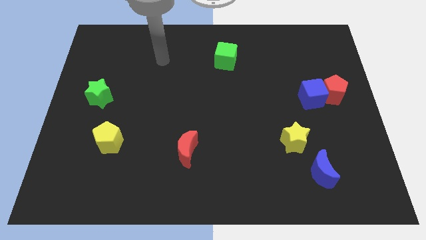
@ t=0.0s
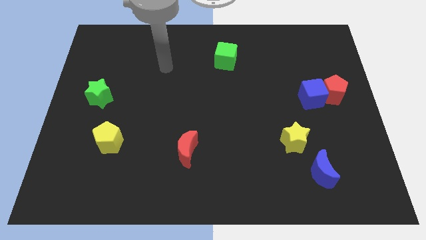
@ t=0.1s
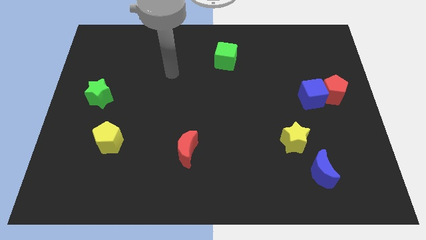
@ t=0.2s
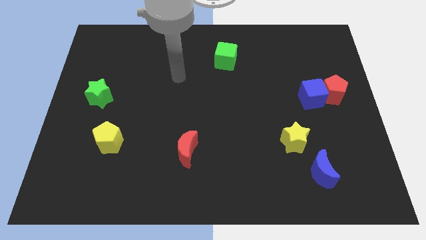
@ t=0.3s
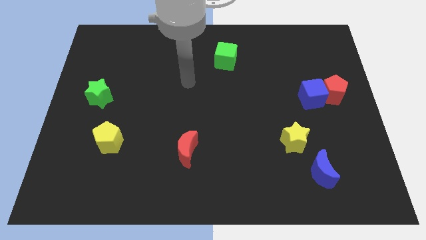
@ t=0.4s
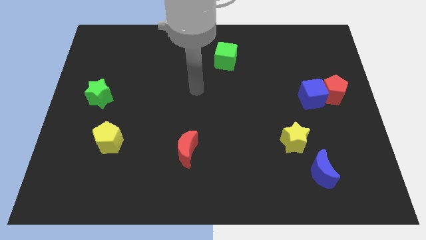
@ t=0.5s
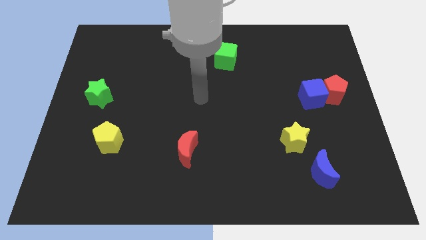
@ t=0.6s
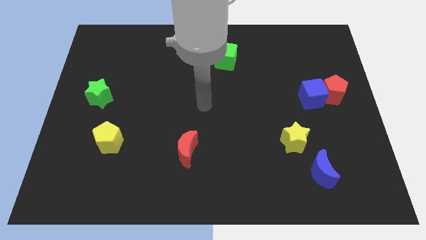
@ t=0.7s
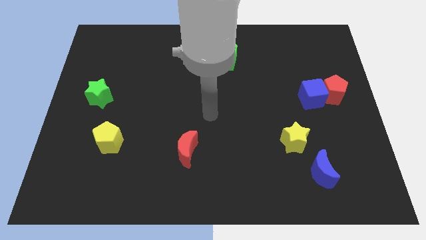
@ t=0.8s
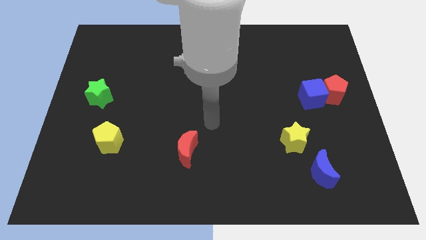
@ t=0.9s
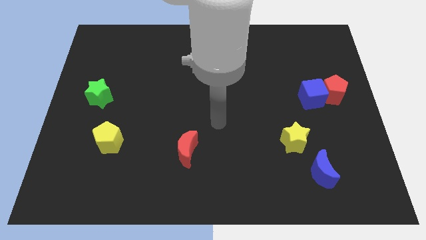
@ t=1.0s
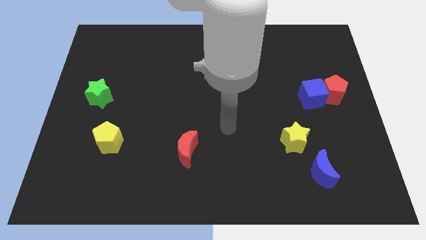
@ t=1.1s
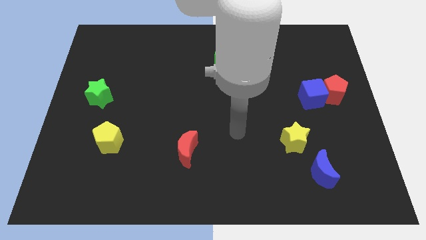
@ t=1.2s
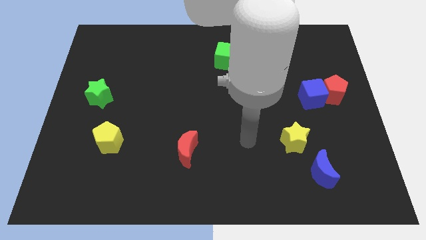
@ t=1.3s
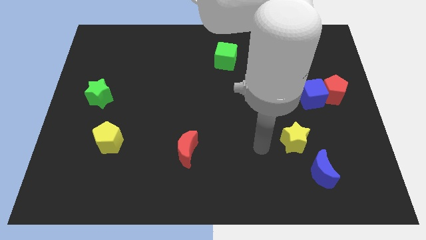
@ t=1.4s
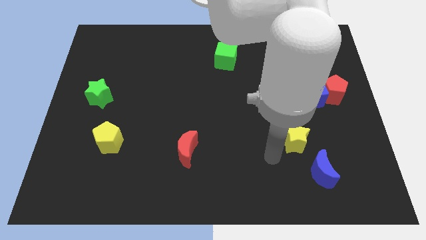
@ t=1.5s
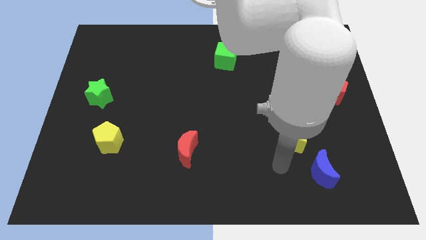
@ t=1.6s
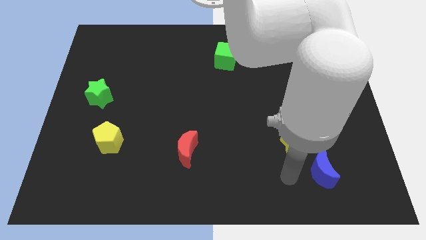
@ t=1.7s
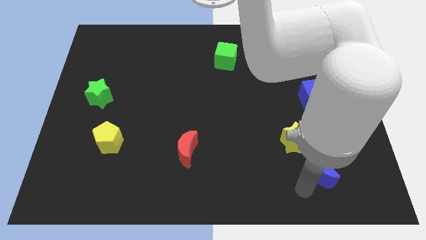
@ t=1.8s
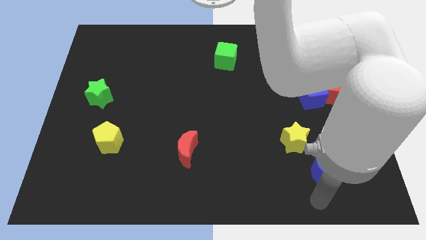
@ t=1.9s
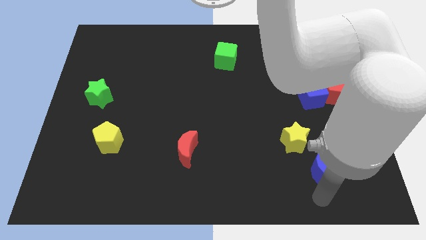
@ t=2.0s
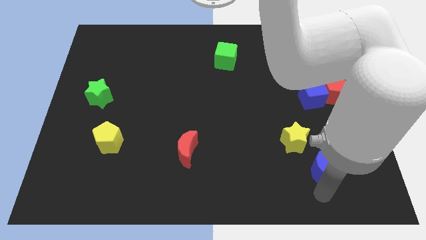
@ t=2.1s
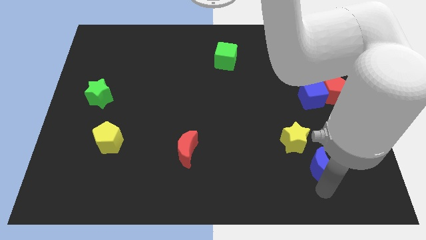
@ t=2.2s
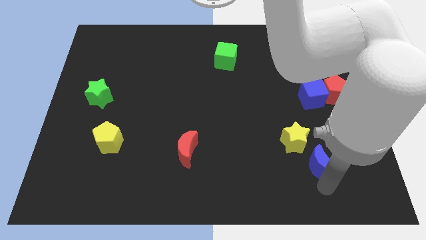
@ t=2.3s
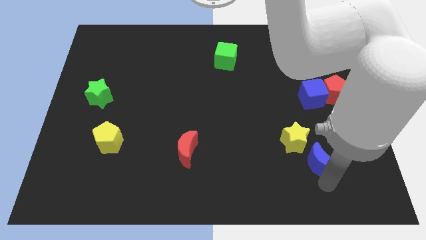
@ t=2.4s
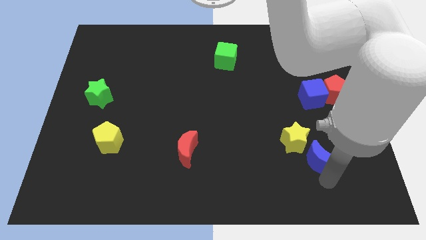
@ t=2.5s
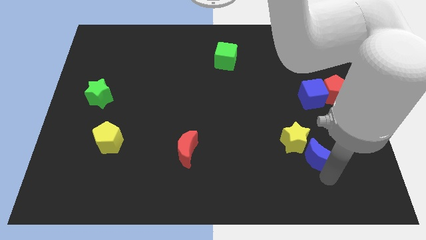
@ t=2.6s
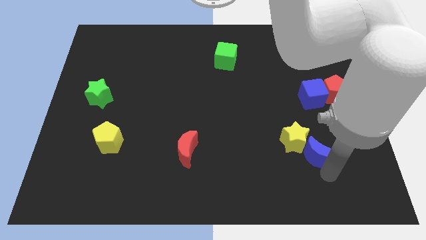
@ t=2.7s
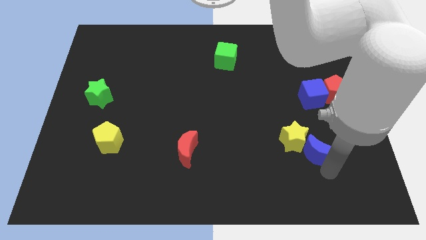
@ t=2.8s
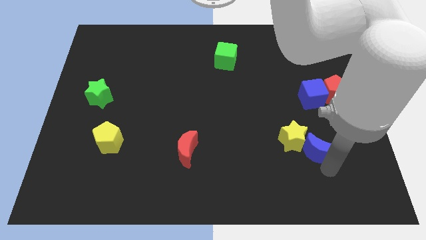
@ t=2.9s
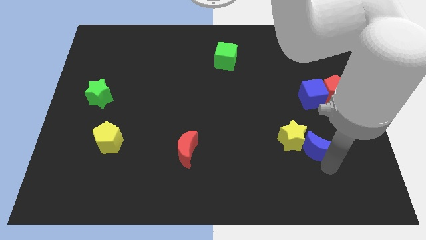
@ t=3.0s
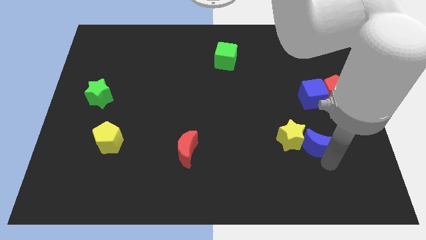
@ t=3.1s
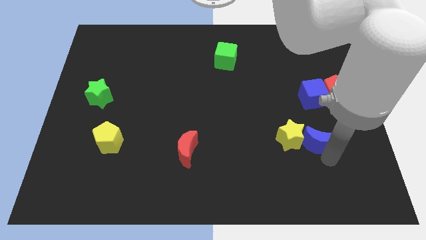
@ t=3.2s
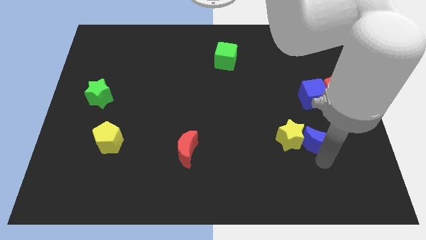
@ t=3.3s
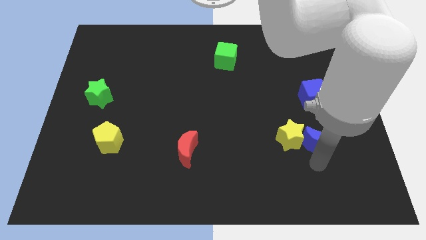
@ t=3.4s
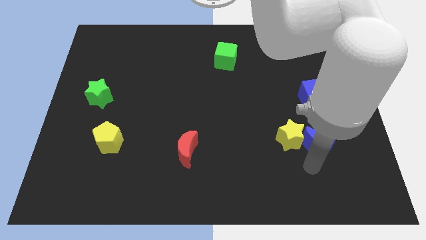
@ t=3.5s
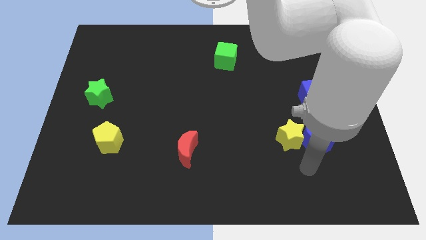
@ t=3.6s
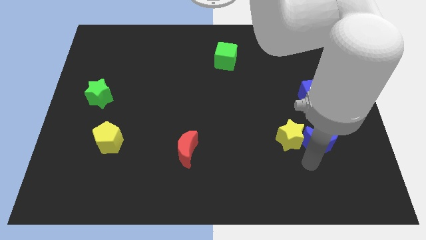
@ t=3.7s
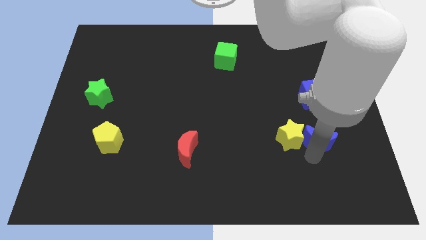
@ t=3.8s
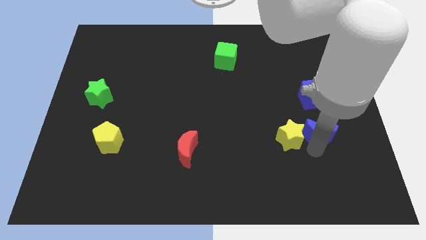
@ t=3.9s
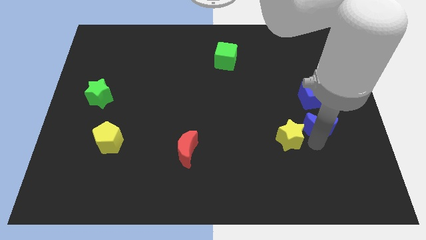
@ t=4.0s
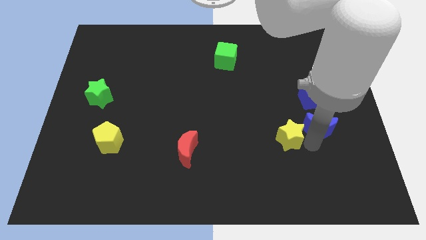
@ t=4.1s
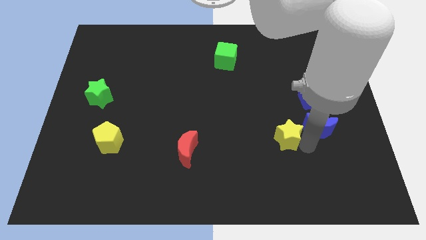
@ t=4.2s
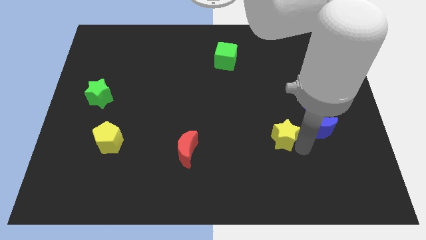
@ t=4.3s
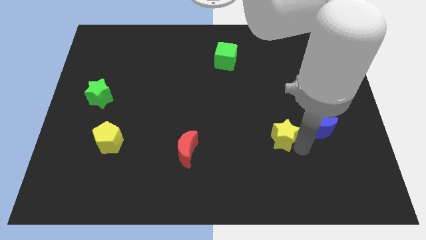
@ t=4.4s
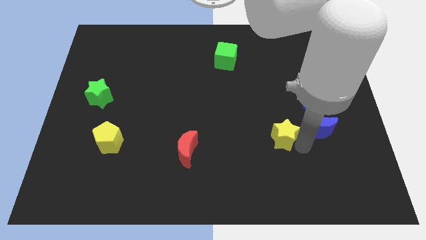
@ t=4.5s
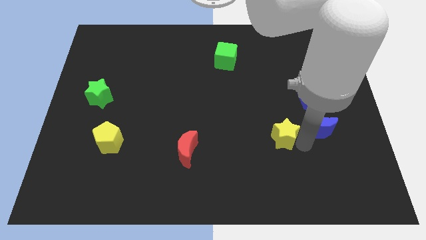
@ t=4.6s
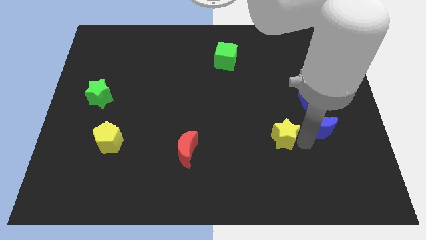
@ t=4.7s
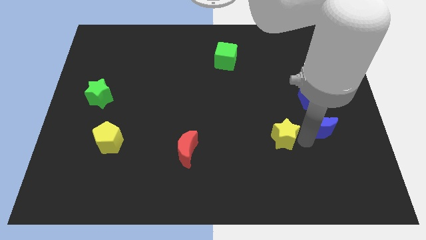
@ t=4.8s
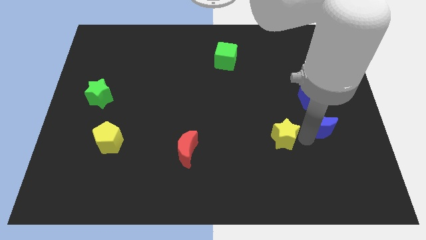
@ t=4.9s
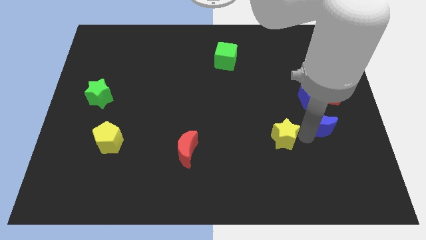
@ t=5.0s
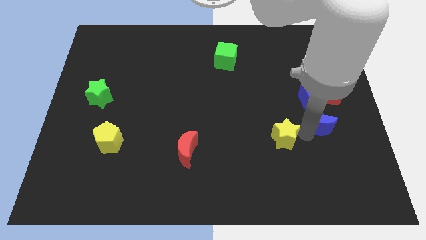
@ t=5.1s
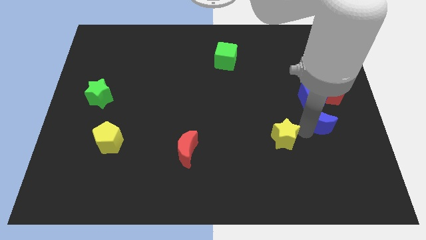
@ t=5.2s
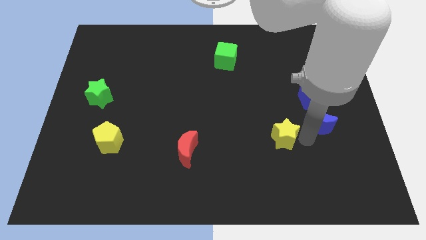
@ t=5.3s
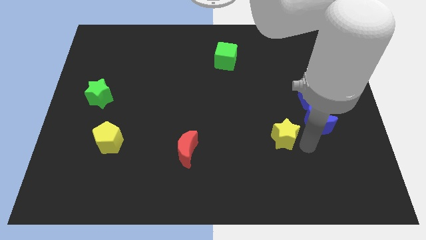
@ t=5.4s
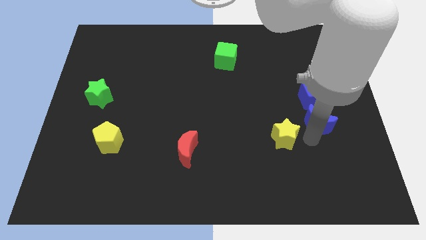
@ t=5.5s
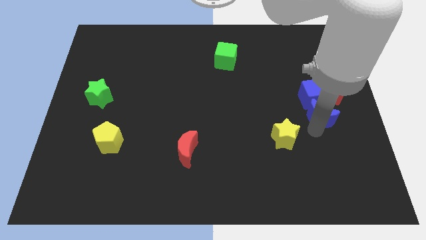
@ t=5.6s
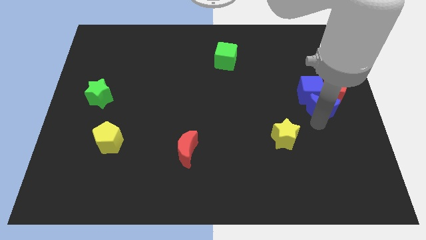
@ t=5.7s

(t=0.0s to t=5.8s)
slide the blue moon next to the red pentagon
